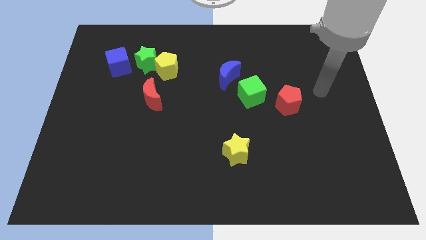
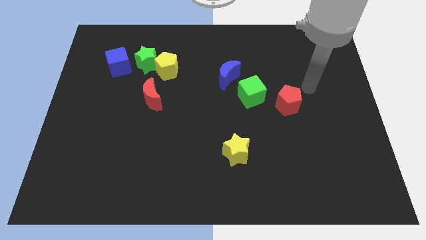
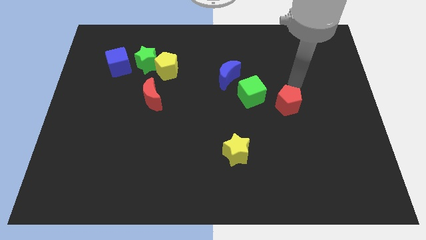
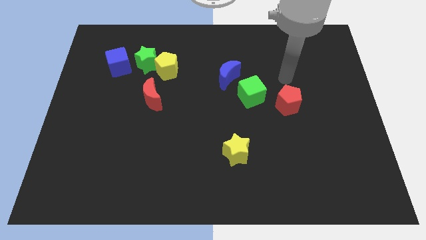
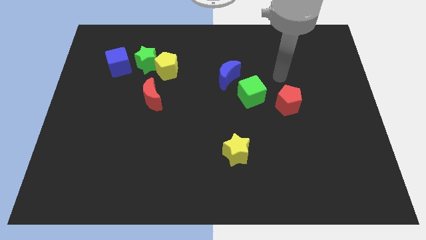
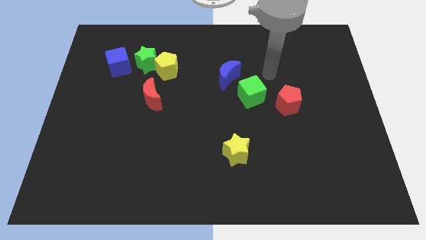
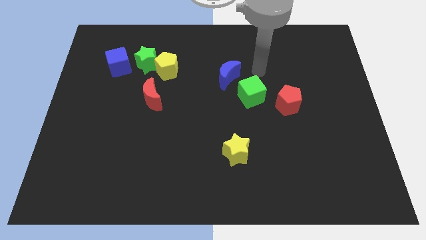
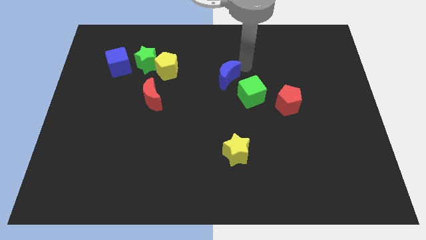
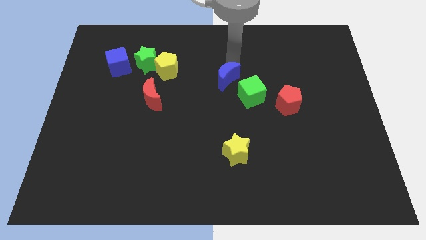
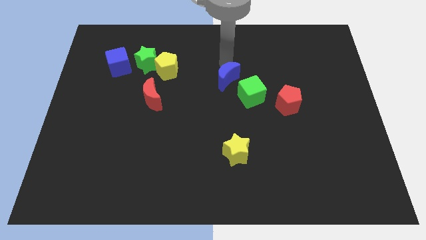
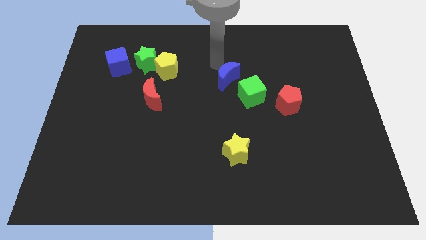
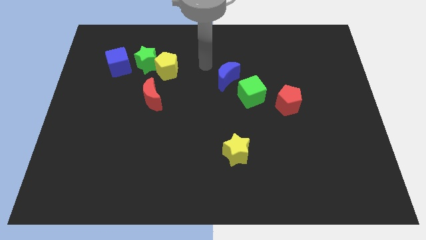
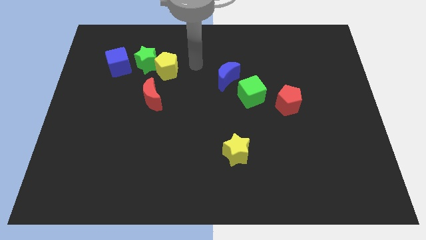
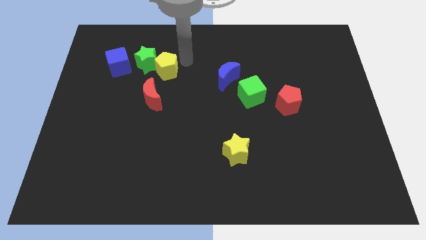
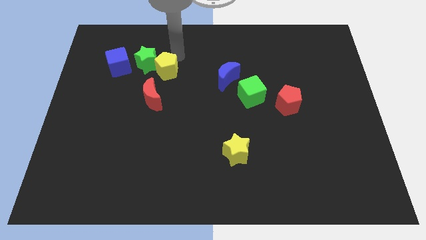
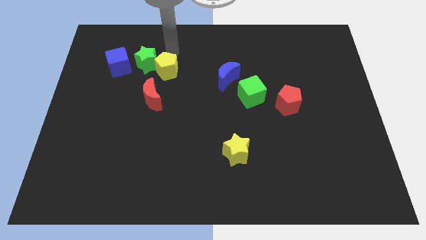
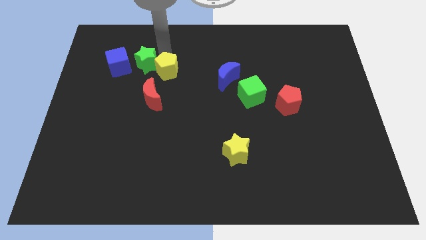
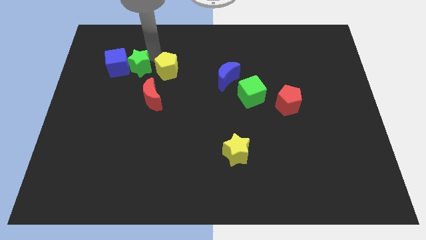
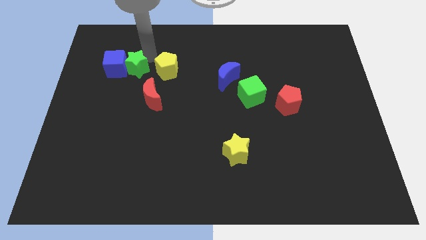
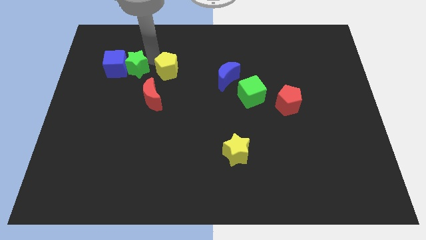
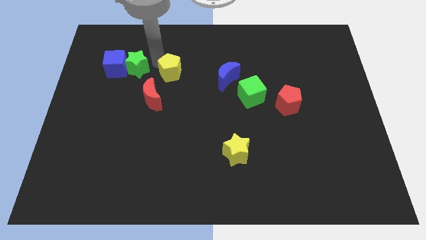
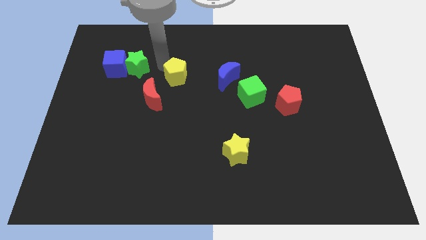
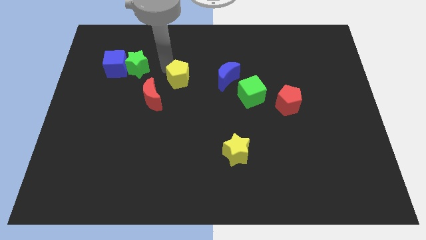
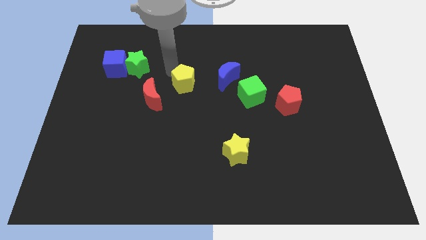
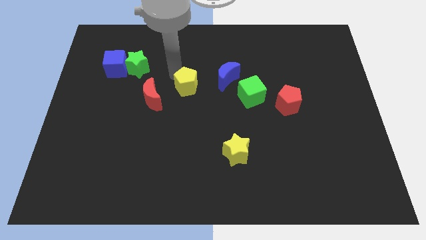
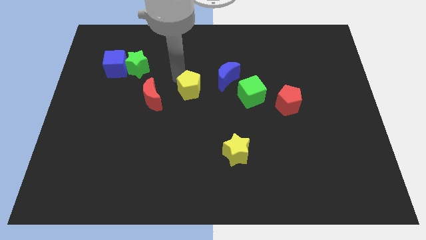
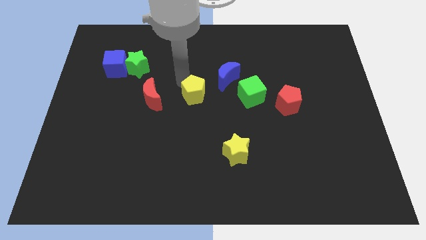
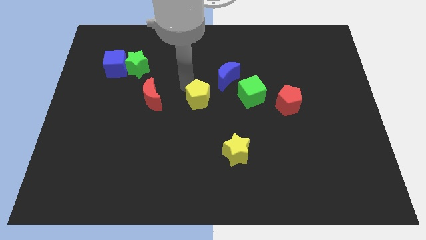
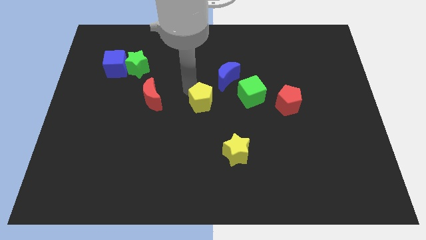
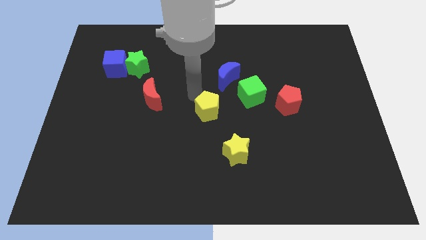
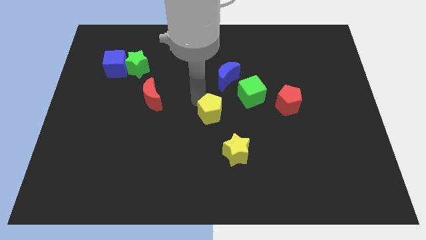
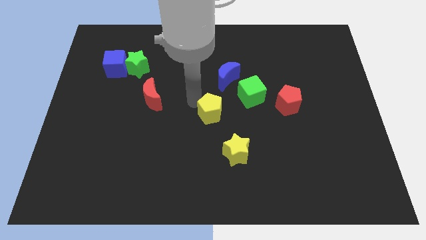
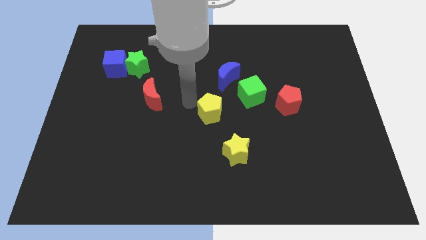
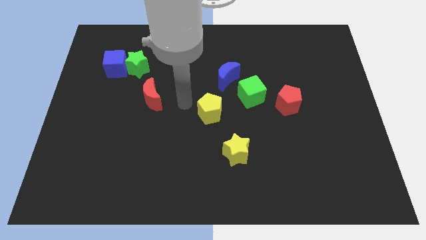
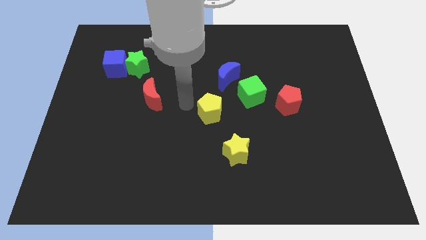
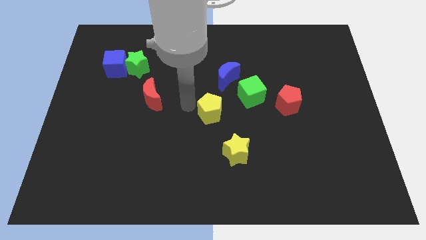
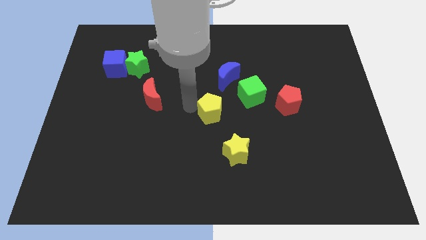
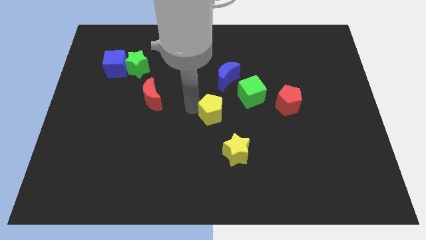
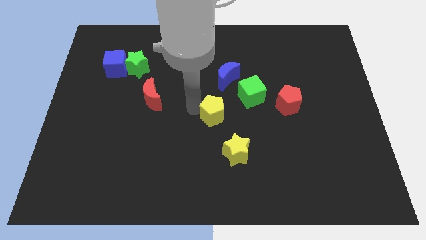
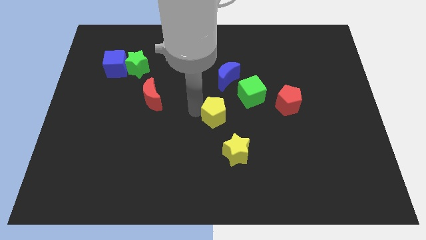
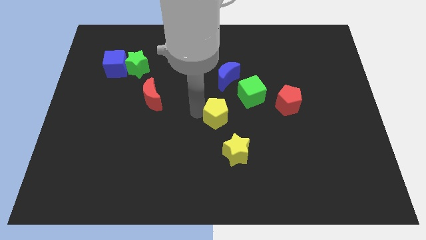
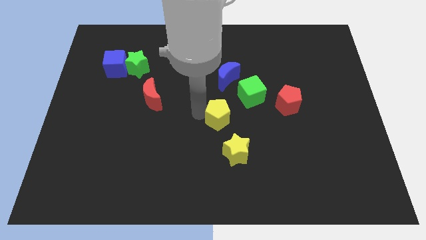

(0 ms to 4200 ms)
push the yellow pentagon downwards and then to the right

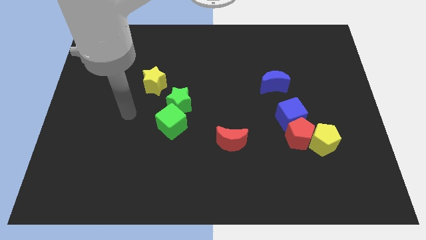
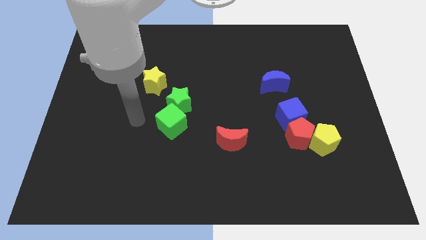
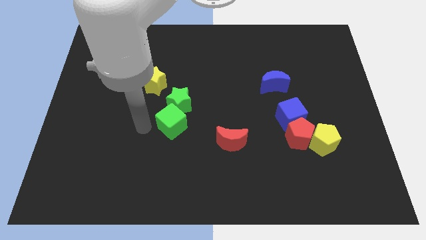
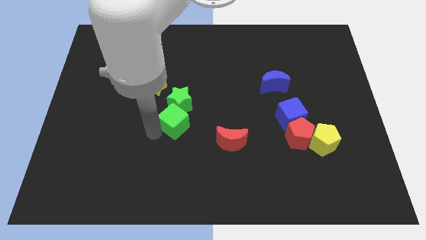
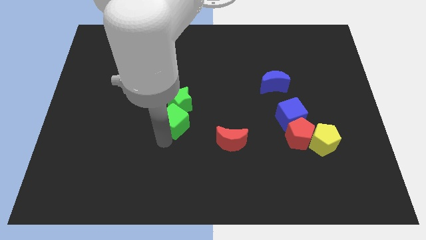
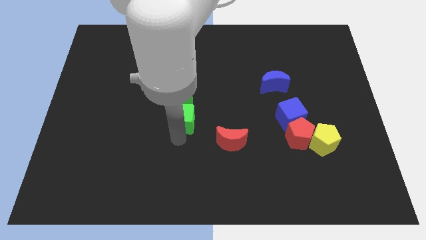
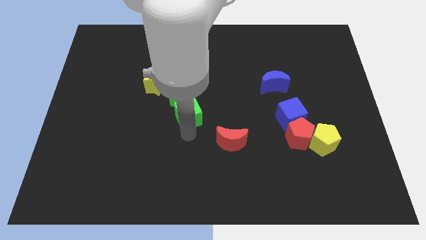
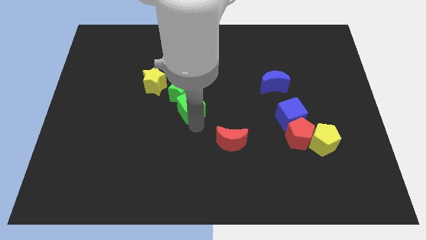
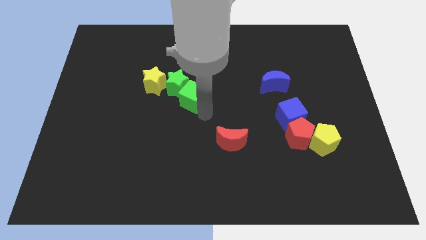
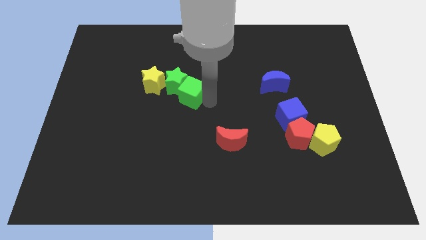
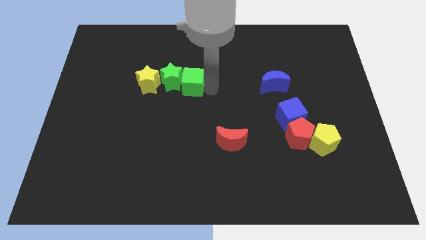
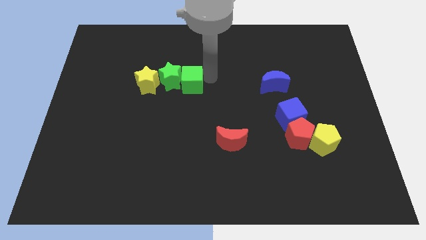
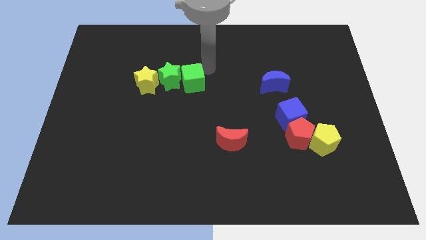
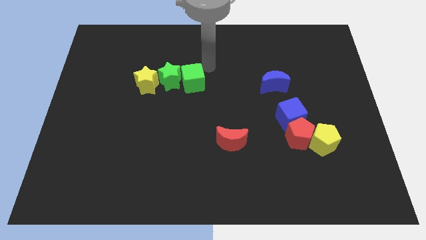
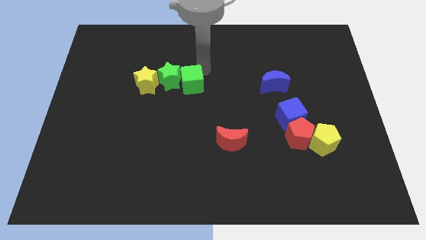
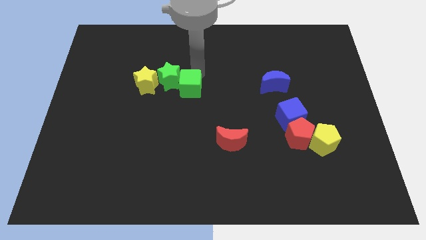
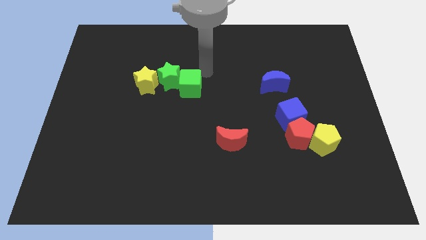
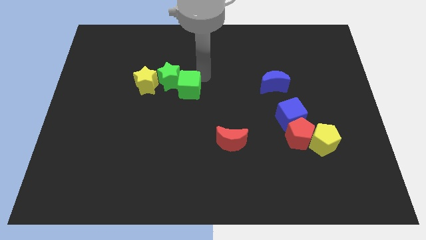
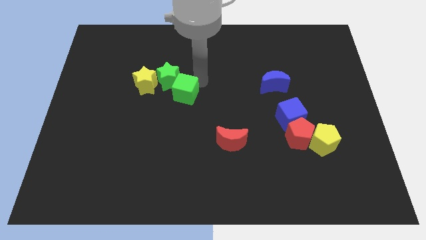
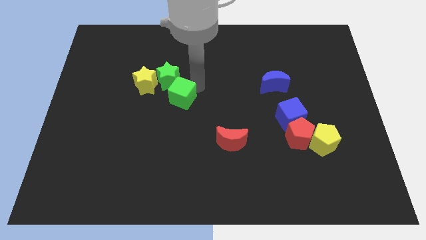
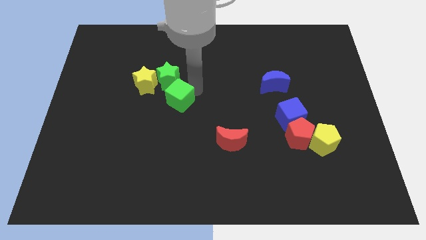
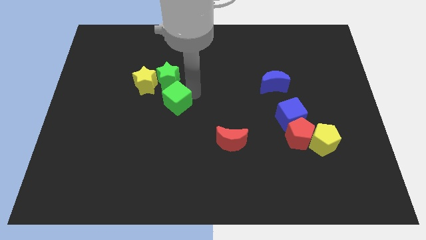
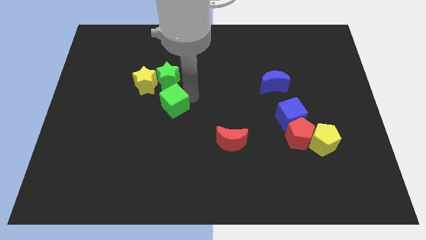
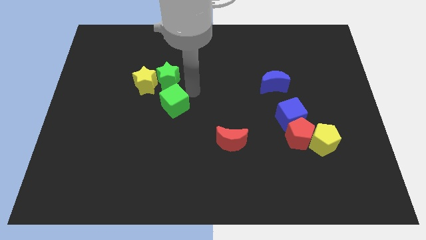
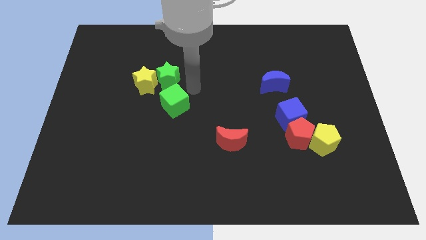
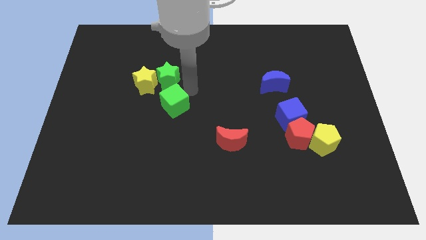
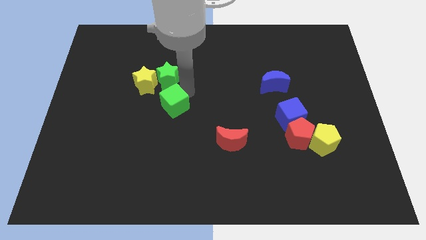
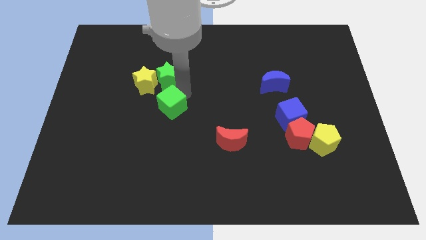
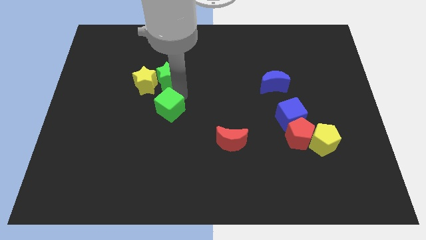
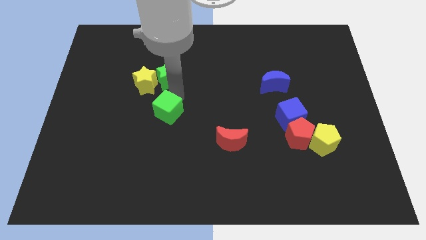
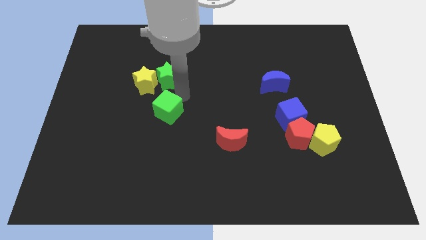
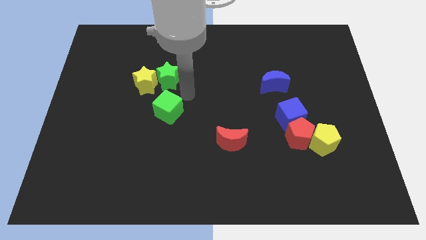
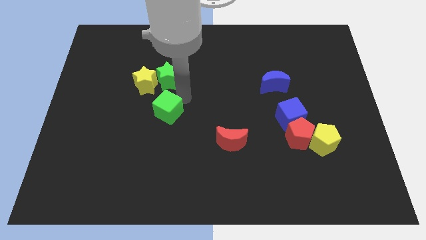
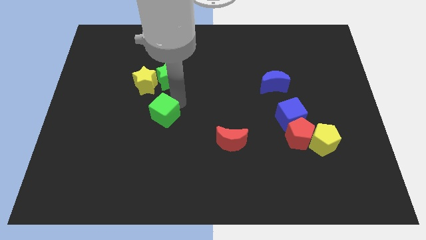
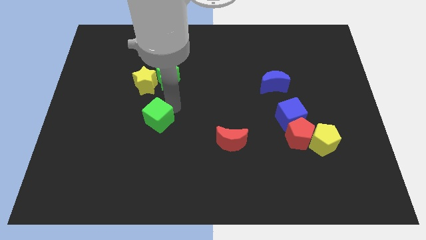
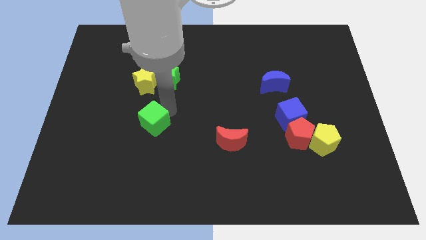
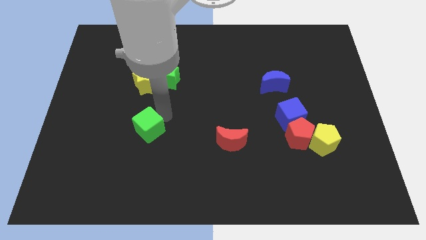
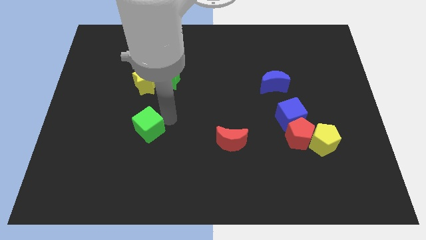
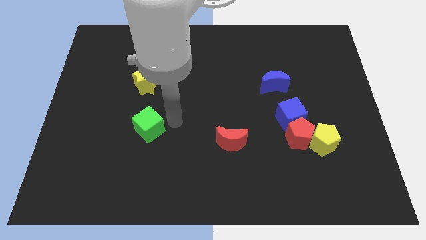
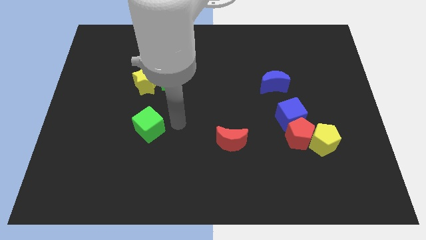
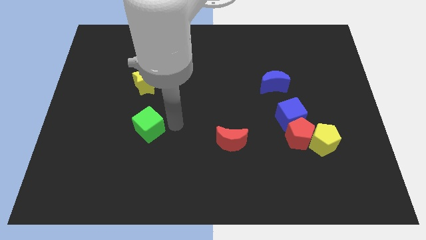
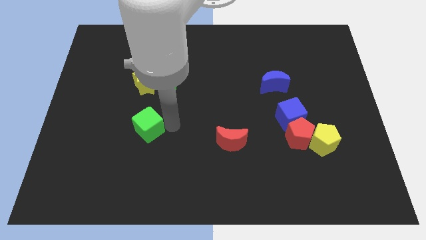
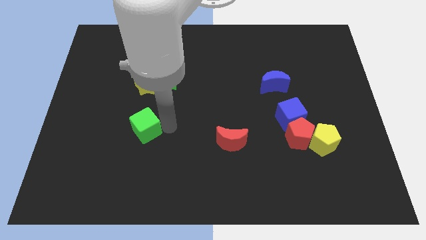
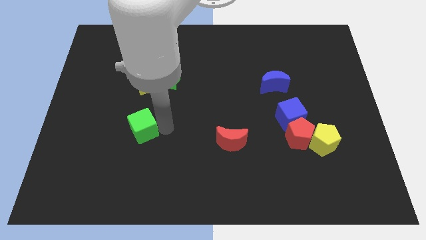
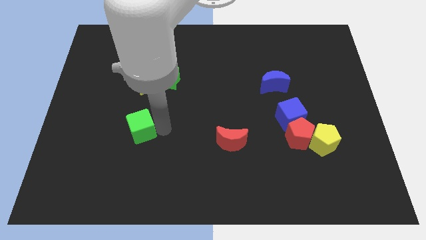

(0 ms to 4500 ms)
slide the green cube to the left a little
